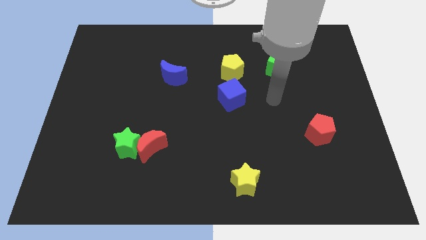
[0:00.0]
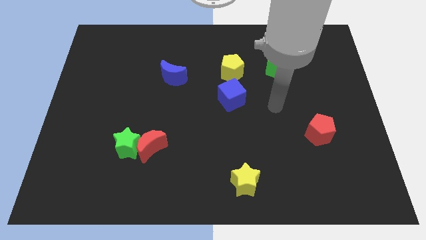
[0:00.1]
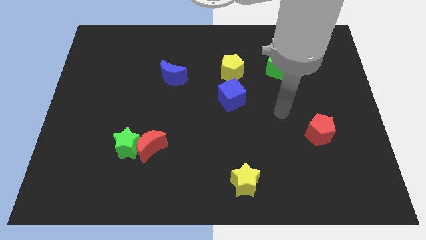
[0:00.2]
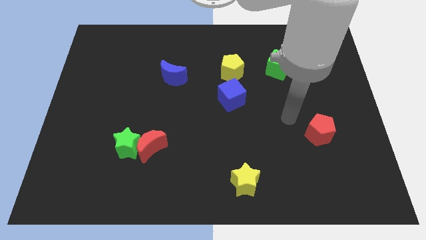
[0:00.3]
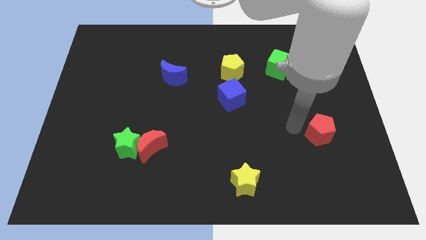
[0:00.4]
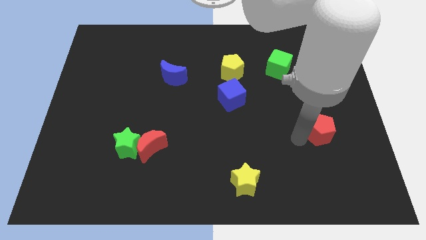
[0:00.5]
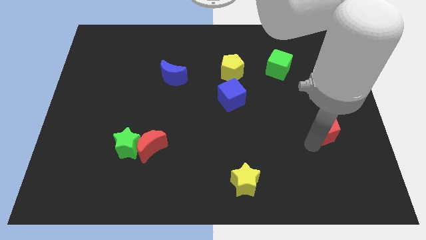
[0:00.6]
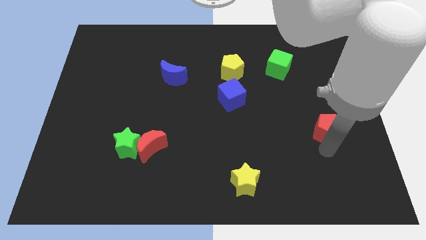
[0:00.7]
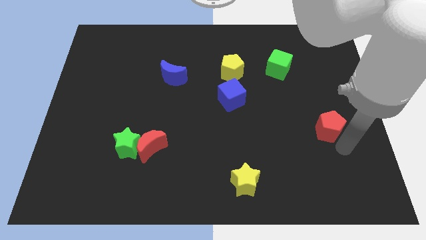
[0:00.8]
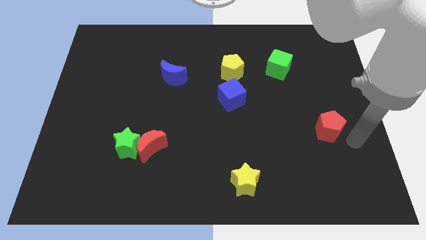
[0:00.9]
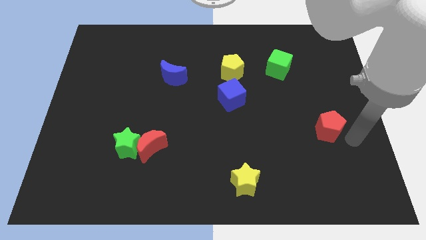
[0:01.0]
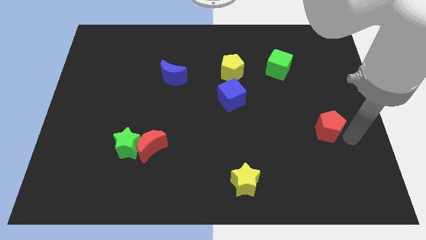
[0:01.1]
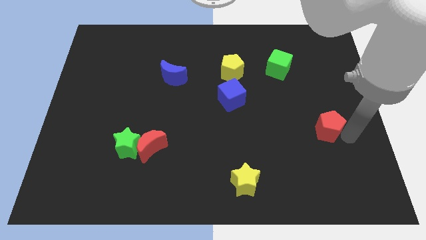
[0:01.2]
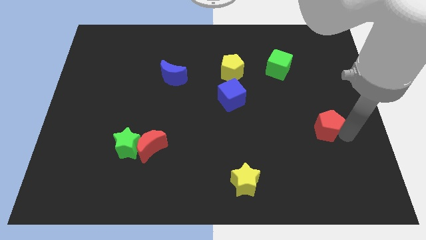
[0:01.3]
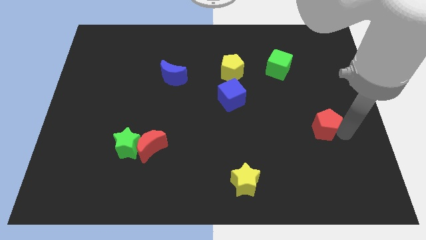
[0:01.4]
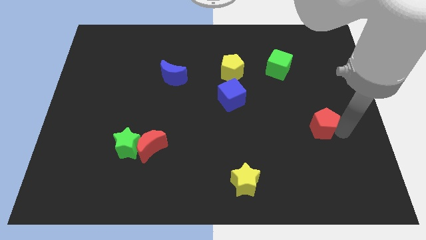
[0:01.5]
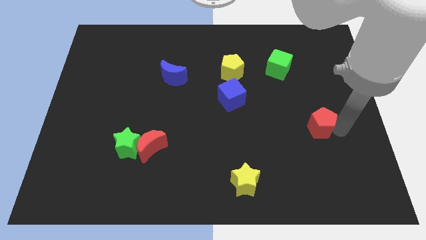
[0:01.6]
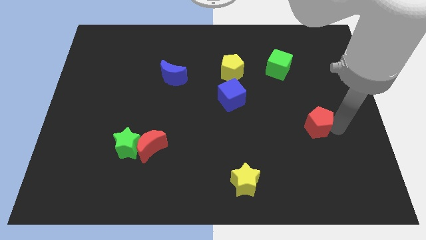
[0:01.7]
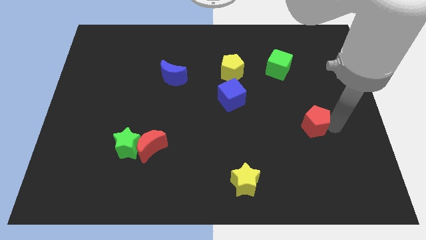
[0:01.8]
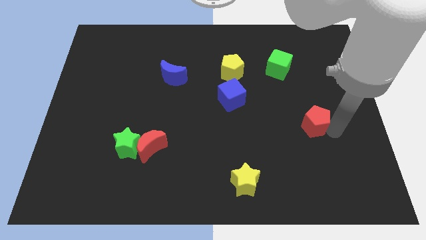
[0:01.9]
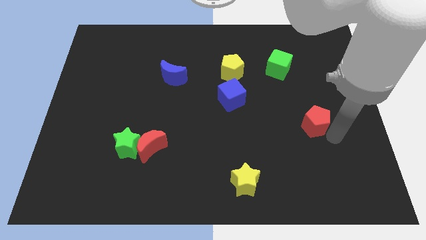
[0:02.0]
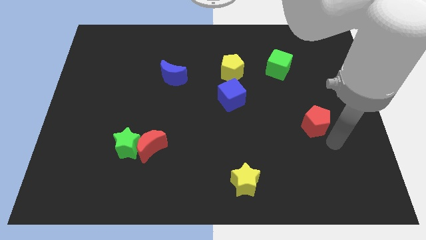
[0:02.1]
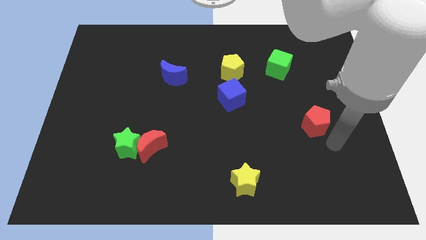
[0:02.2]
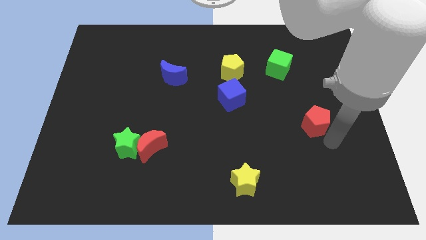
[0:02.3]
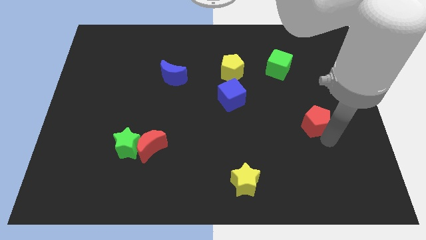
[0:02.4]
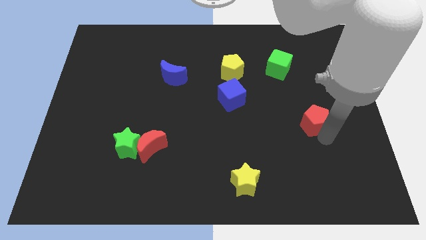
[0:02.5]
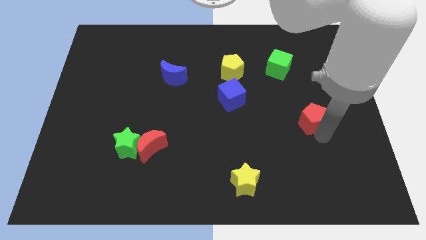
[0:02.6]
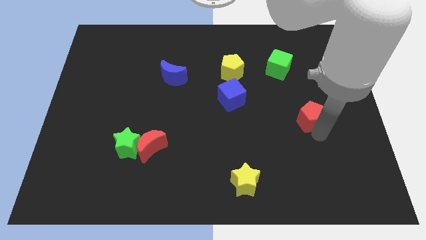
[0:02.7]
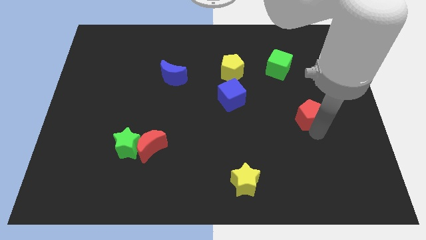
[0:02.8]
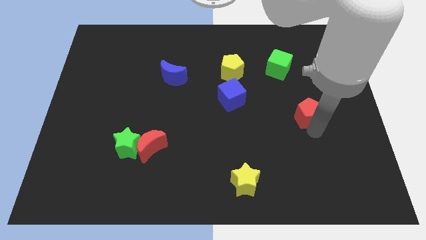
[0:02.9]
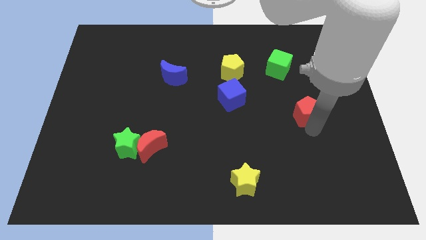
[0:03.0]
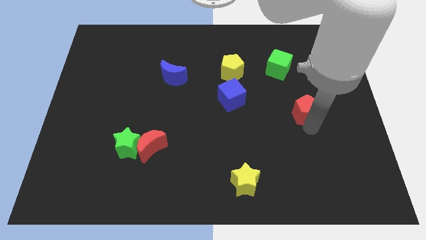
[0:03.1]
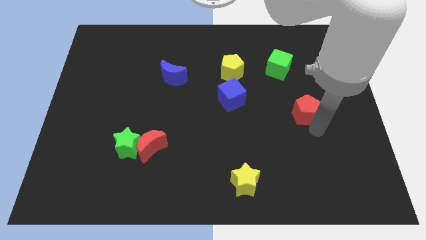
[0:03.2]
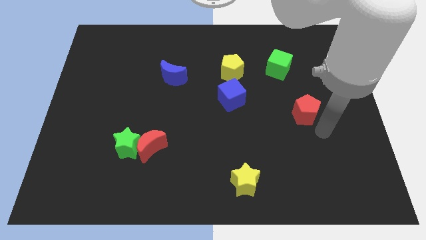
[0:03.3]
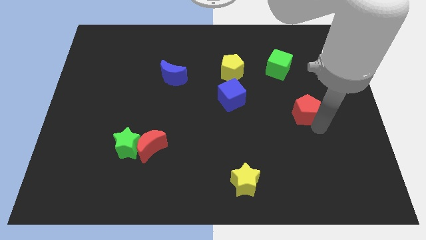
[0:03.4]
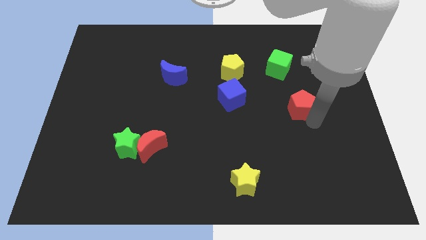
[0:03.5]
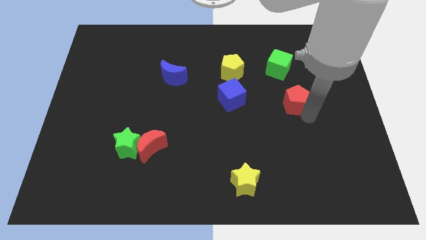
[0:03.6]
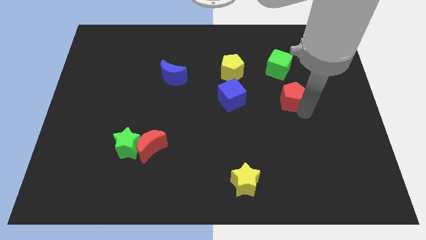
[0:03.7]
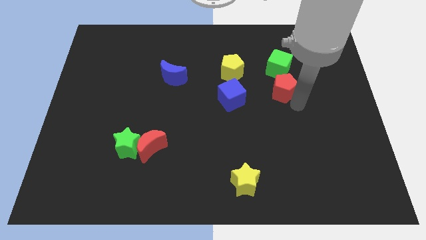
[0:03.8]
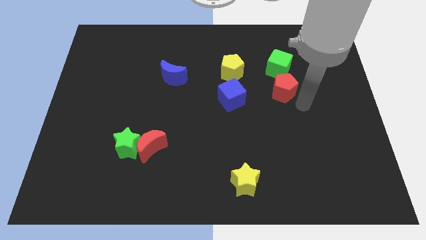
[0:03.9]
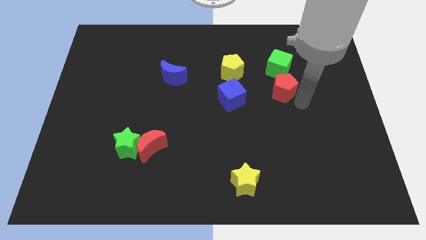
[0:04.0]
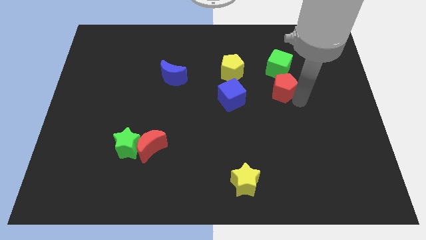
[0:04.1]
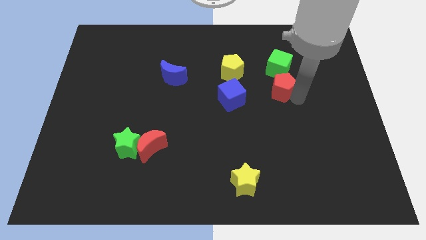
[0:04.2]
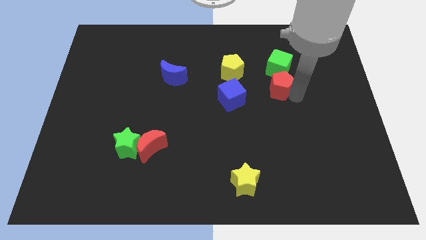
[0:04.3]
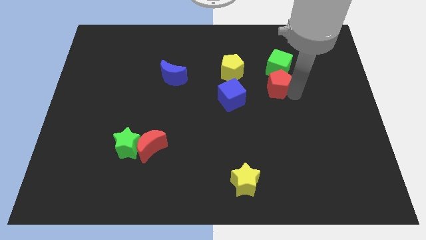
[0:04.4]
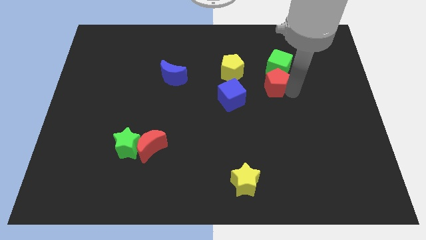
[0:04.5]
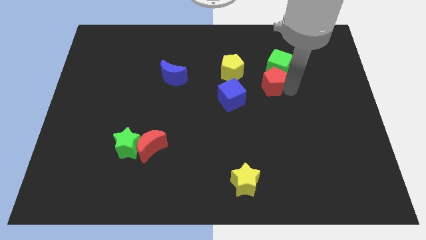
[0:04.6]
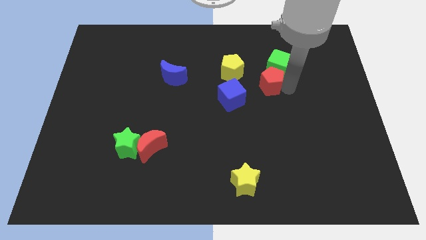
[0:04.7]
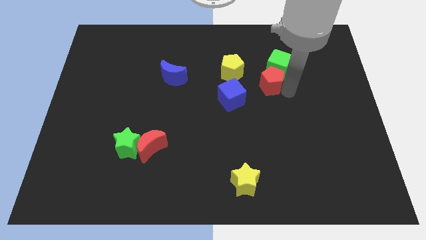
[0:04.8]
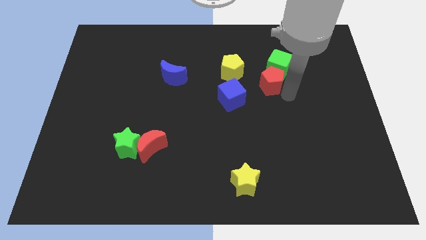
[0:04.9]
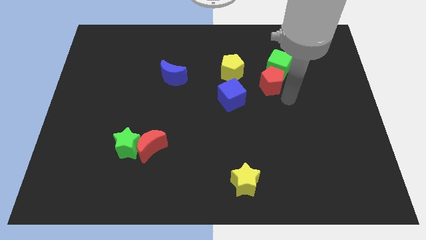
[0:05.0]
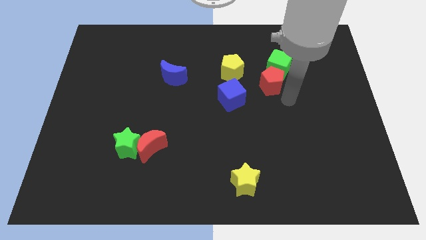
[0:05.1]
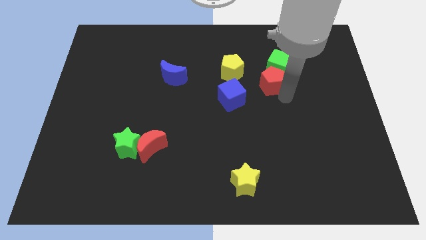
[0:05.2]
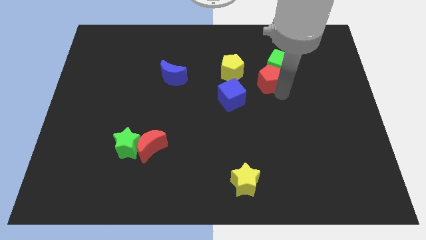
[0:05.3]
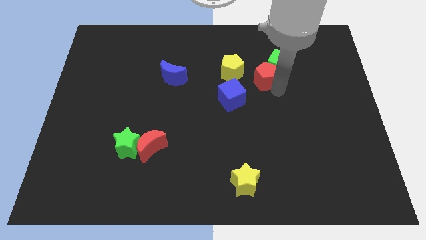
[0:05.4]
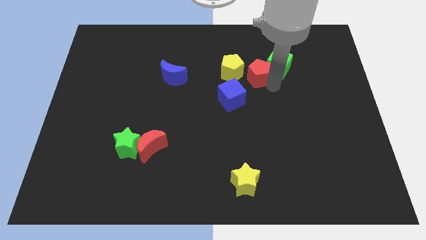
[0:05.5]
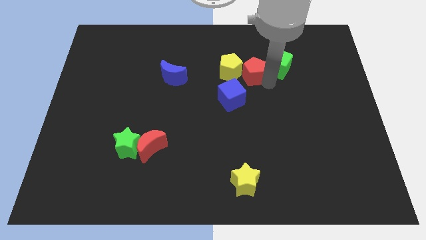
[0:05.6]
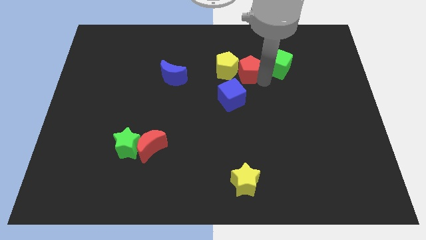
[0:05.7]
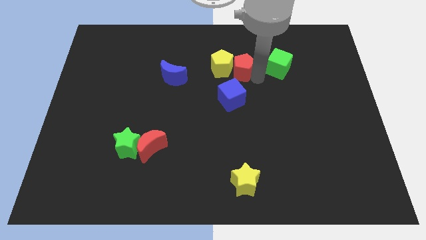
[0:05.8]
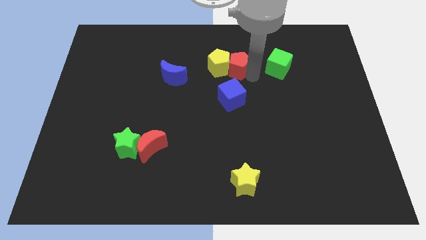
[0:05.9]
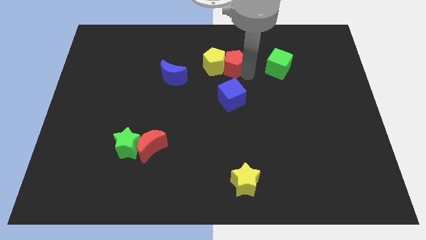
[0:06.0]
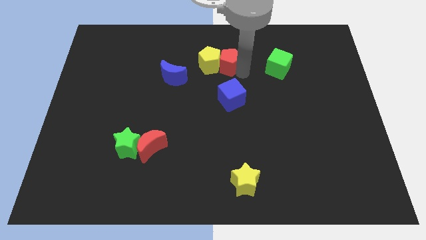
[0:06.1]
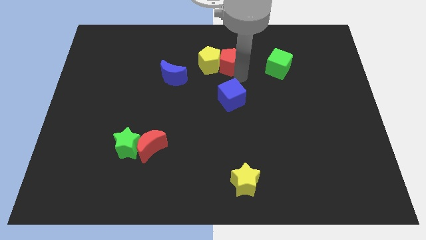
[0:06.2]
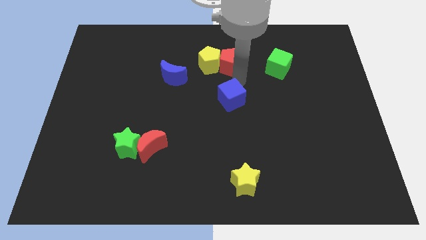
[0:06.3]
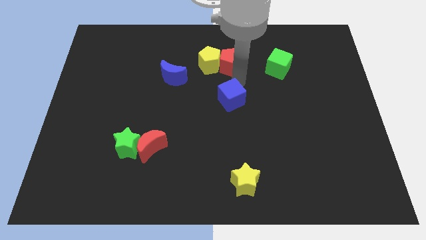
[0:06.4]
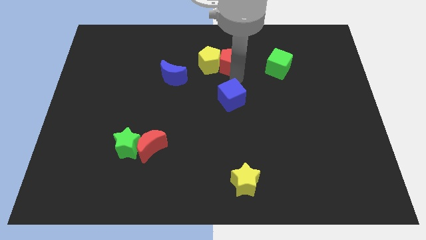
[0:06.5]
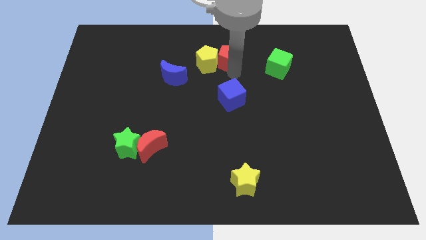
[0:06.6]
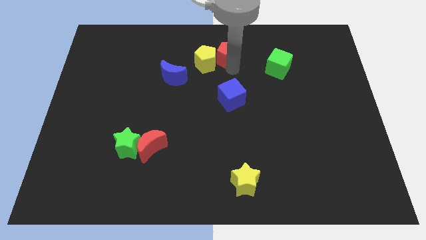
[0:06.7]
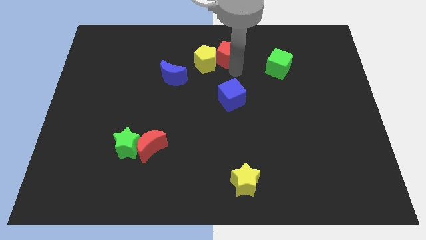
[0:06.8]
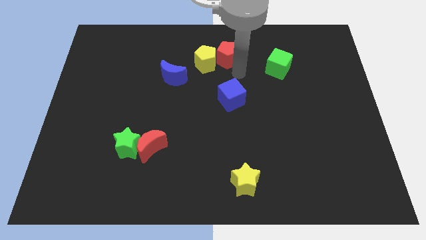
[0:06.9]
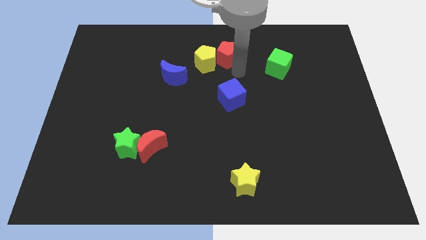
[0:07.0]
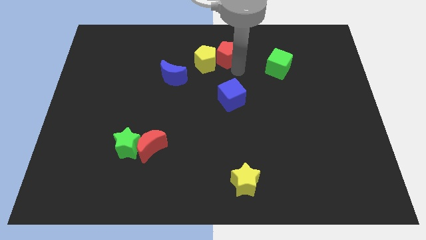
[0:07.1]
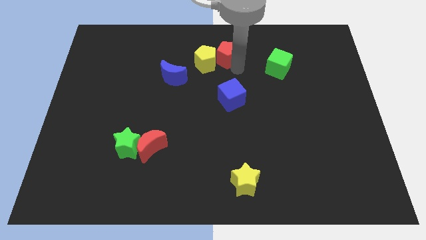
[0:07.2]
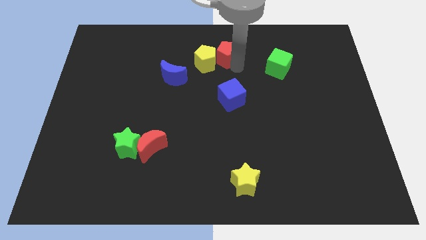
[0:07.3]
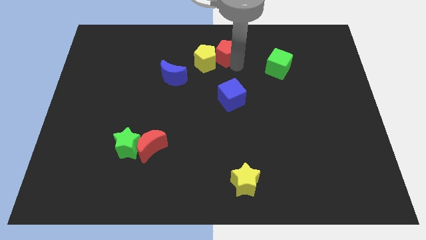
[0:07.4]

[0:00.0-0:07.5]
move the red pentagon to the top side
